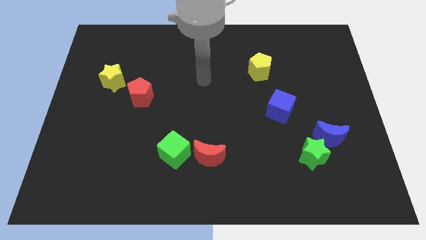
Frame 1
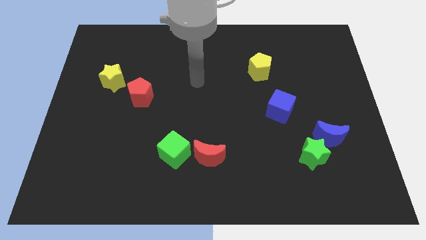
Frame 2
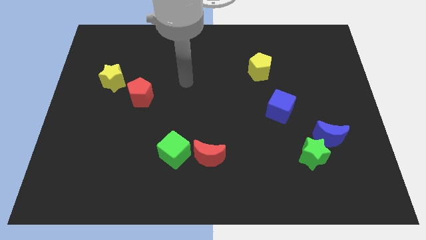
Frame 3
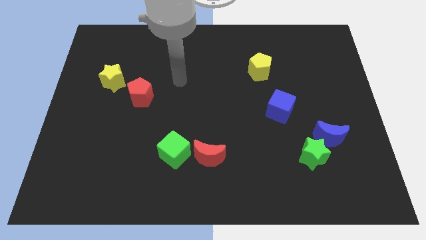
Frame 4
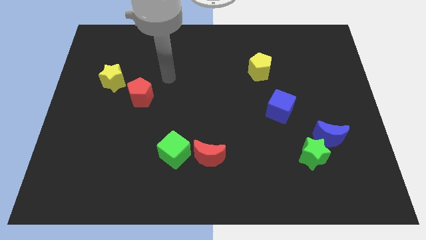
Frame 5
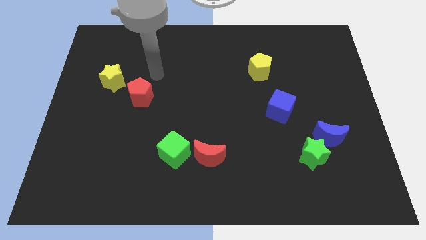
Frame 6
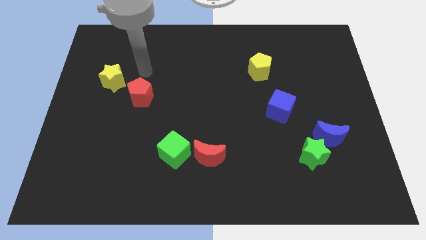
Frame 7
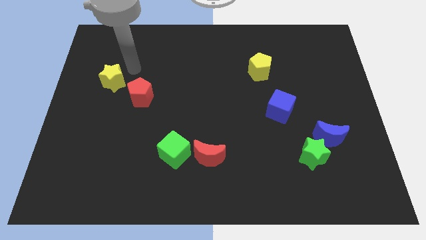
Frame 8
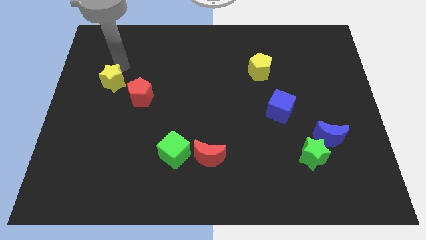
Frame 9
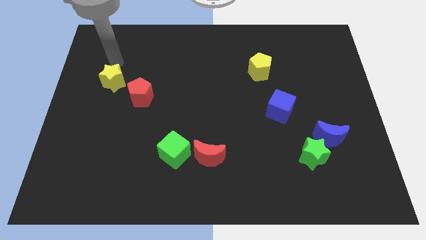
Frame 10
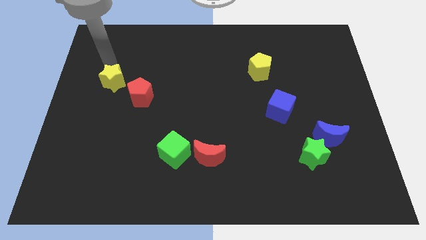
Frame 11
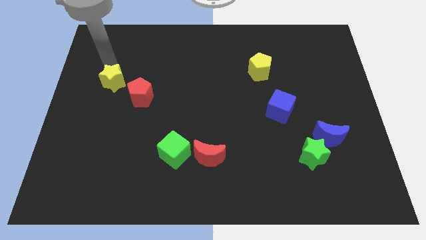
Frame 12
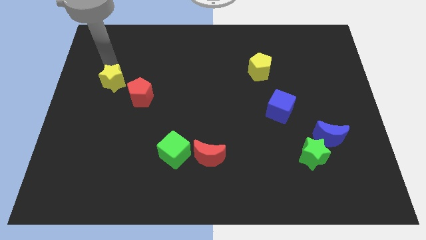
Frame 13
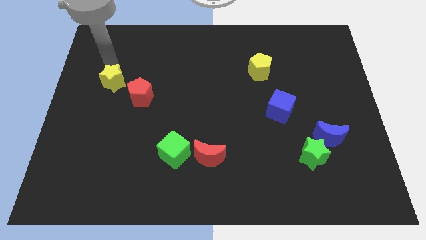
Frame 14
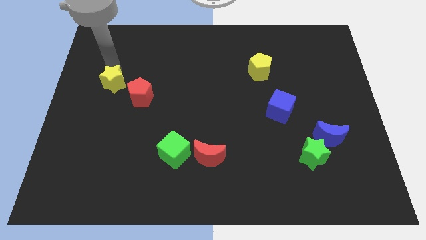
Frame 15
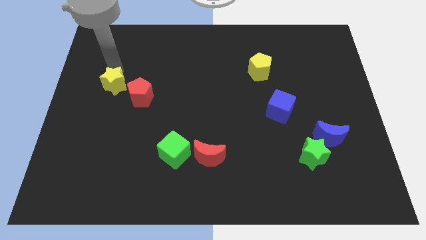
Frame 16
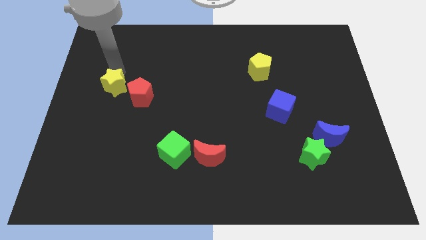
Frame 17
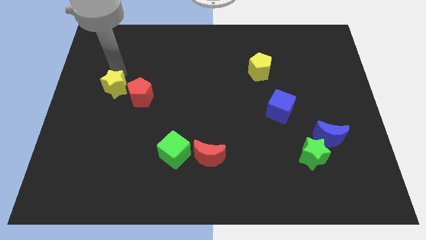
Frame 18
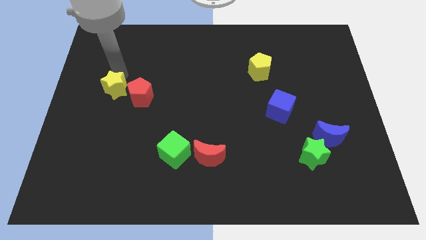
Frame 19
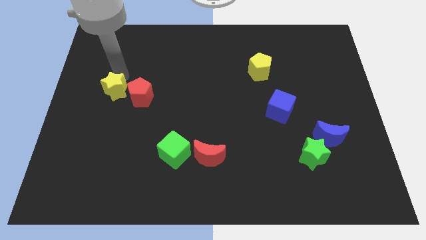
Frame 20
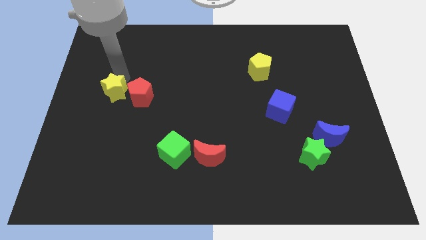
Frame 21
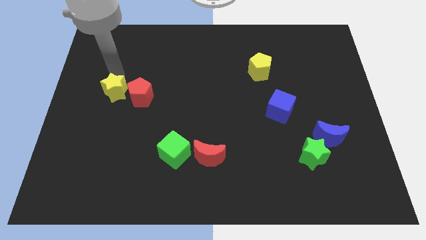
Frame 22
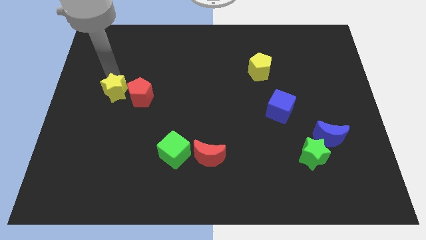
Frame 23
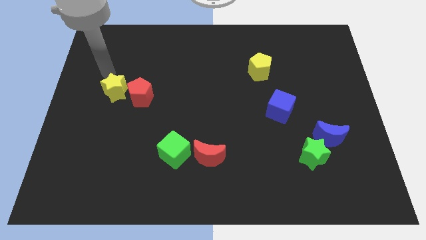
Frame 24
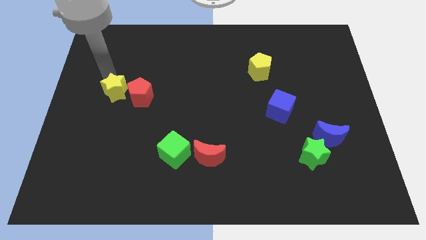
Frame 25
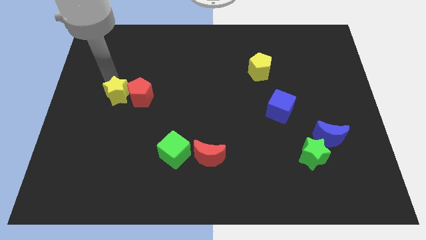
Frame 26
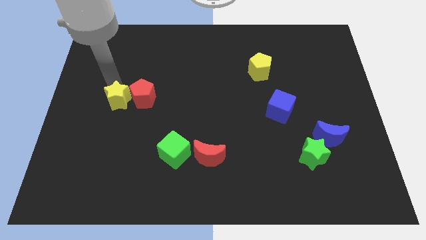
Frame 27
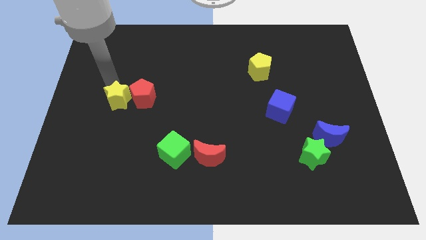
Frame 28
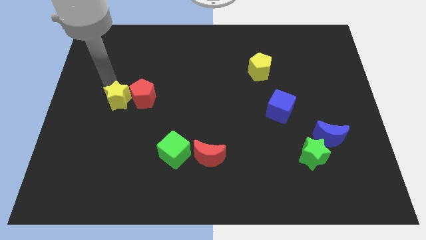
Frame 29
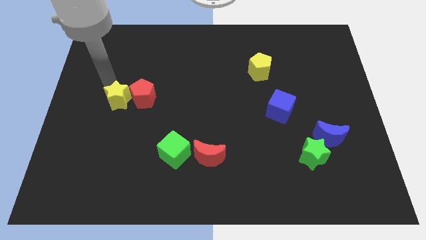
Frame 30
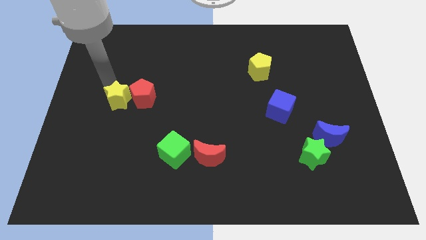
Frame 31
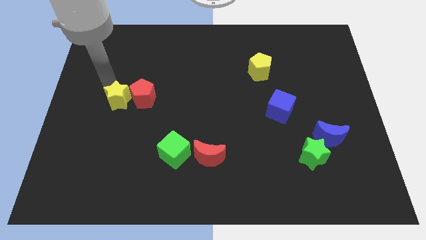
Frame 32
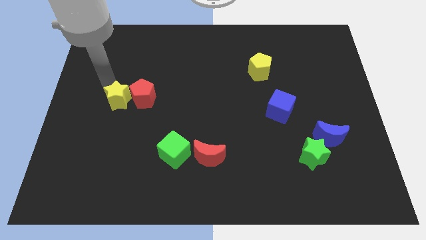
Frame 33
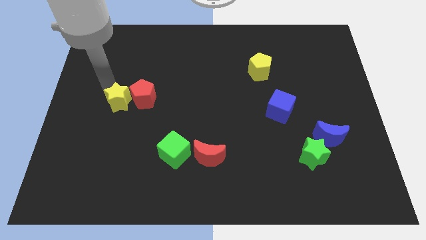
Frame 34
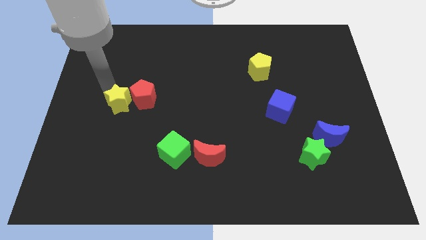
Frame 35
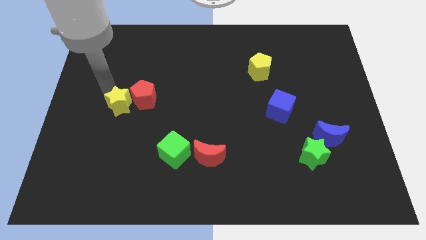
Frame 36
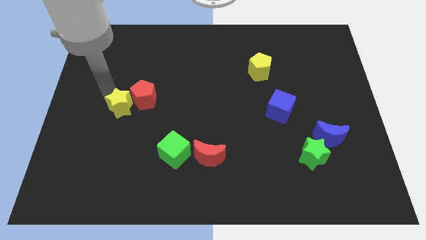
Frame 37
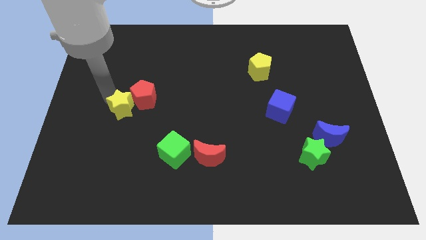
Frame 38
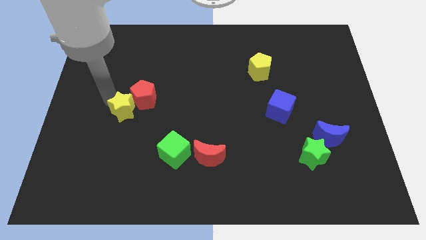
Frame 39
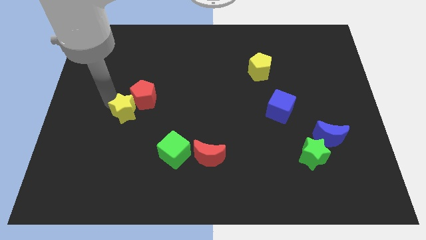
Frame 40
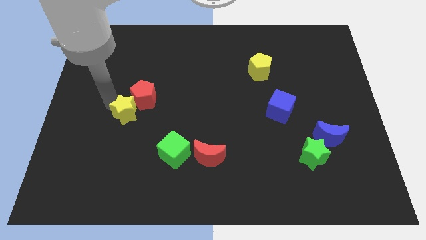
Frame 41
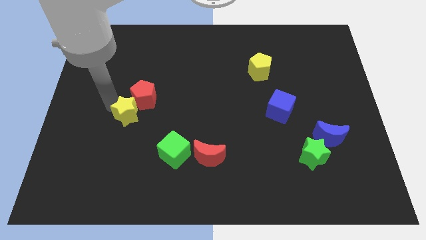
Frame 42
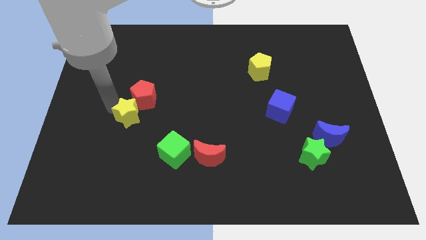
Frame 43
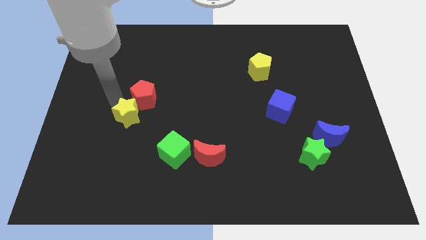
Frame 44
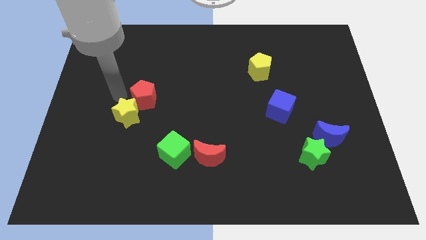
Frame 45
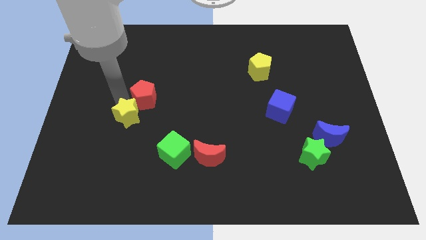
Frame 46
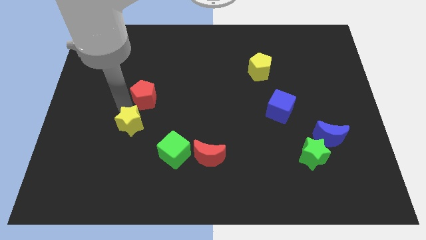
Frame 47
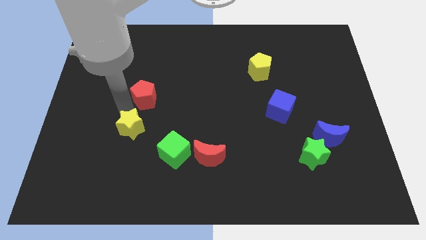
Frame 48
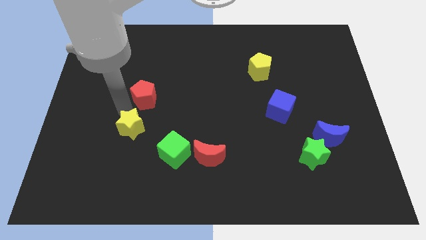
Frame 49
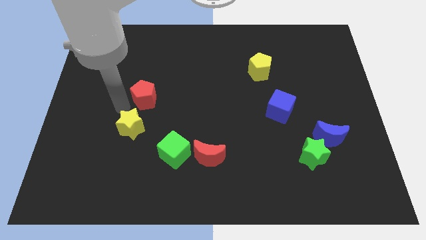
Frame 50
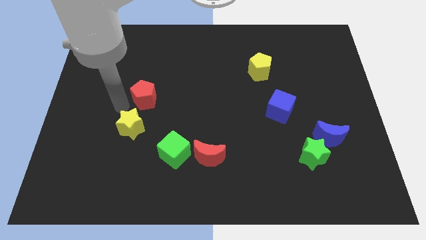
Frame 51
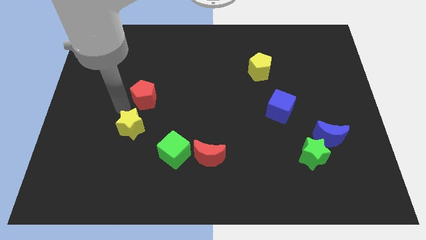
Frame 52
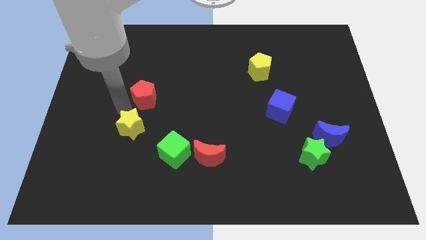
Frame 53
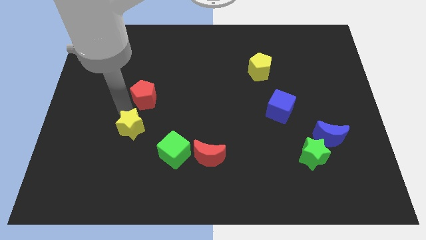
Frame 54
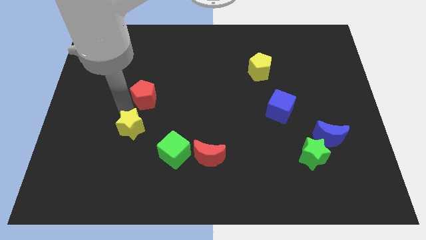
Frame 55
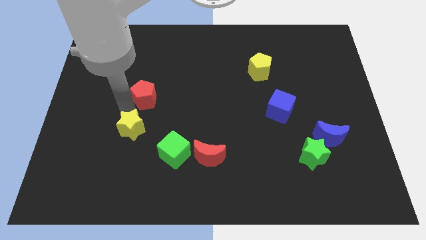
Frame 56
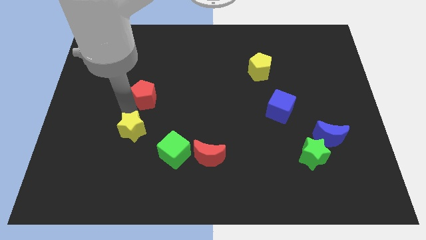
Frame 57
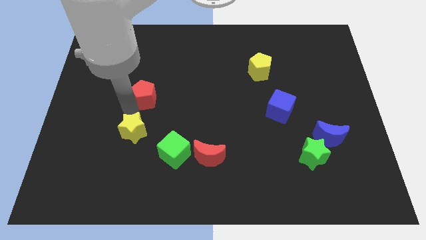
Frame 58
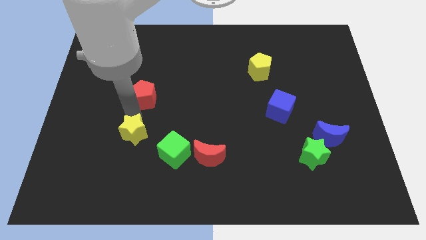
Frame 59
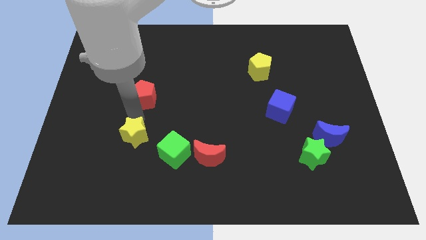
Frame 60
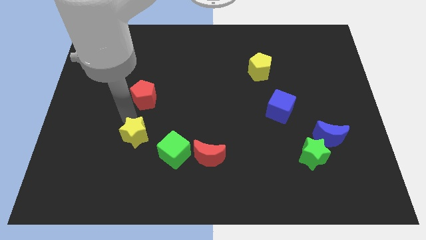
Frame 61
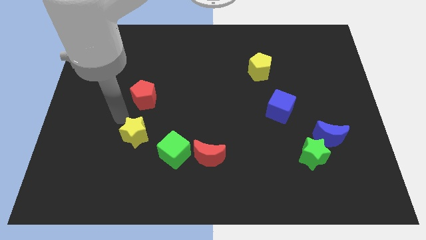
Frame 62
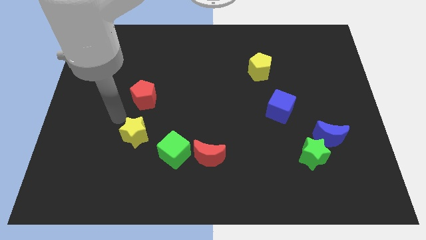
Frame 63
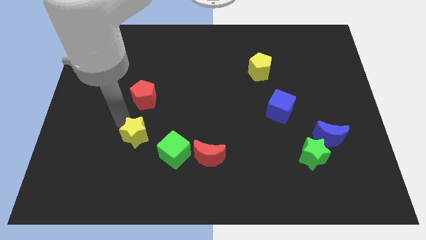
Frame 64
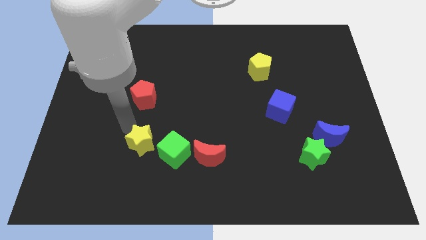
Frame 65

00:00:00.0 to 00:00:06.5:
slide the yellow star left of the red moon

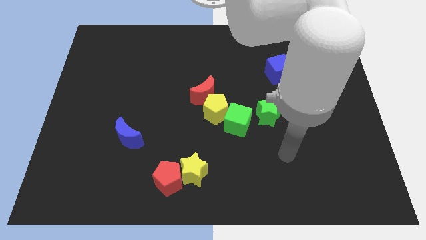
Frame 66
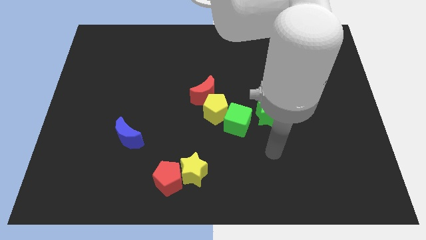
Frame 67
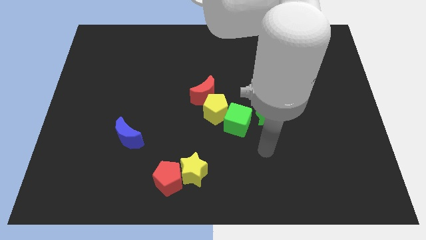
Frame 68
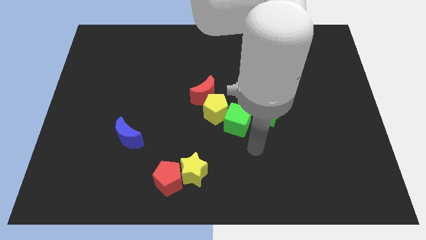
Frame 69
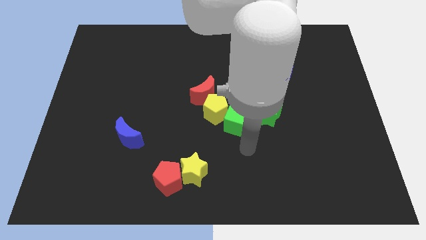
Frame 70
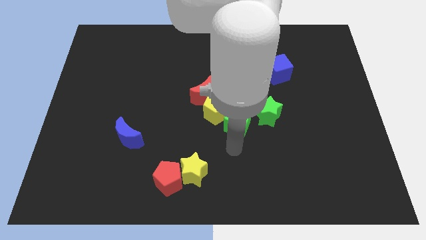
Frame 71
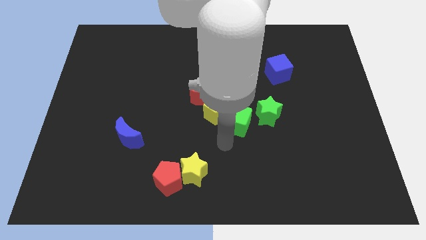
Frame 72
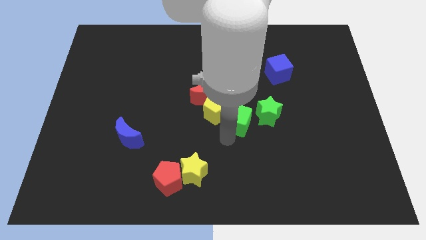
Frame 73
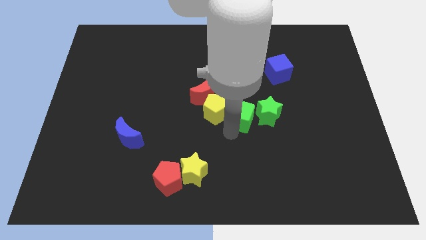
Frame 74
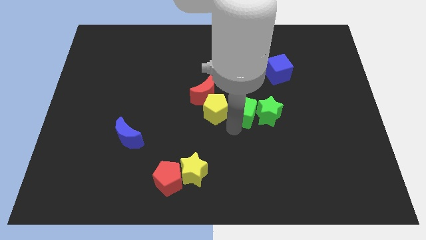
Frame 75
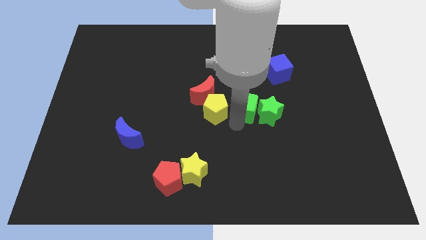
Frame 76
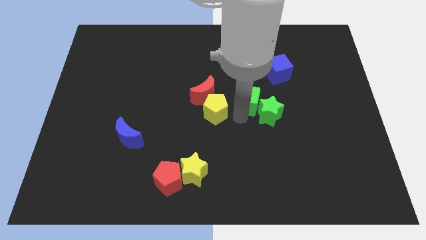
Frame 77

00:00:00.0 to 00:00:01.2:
slide the green cube to the bottom left side of the blue cube
